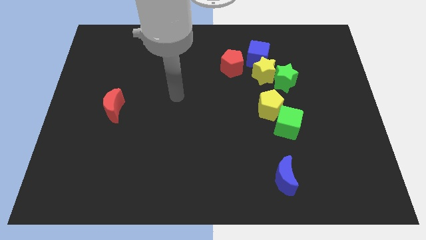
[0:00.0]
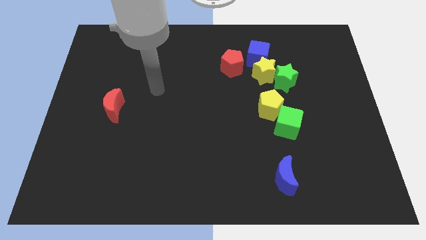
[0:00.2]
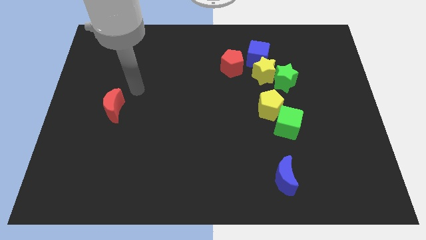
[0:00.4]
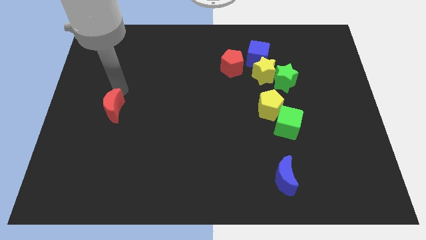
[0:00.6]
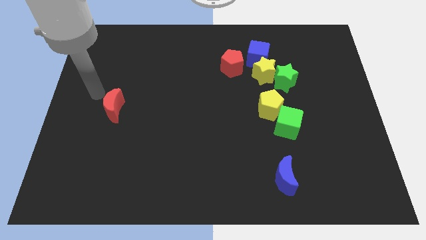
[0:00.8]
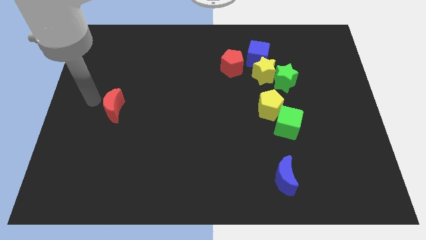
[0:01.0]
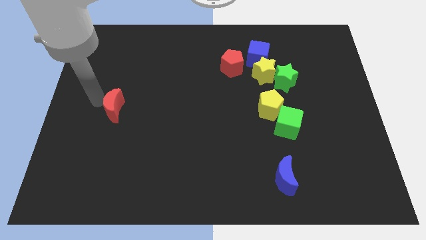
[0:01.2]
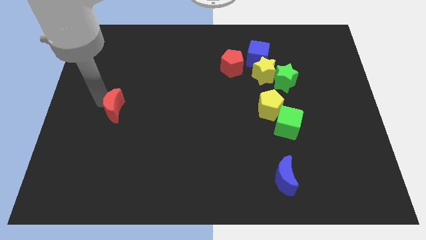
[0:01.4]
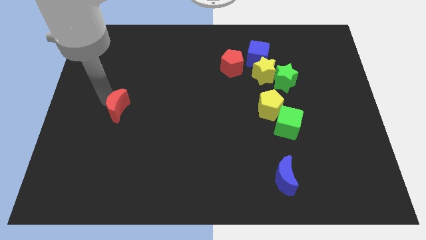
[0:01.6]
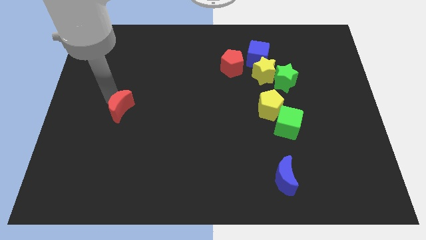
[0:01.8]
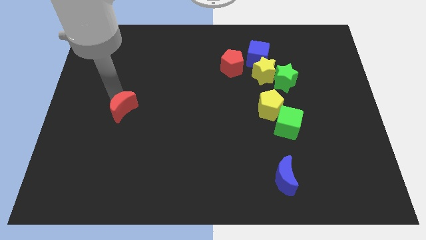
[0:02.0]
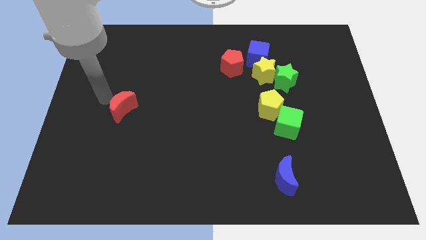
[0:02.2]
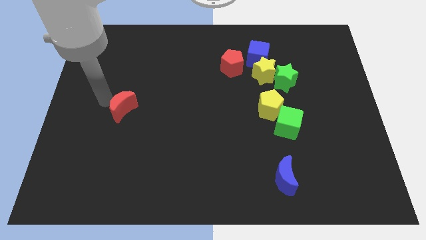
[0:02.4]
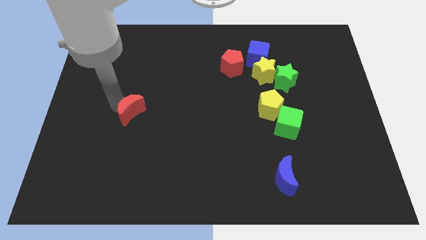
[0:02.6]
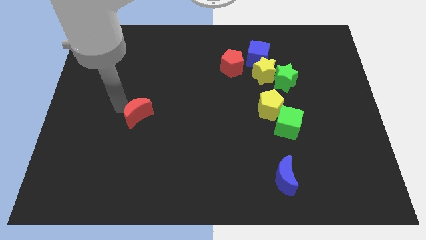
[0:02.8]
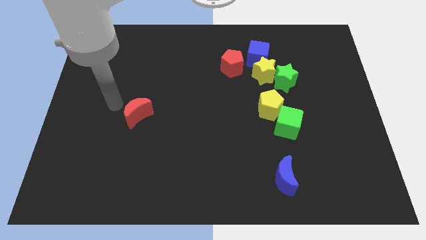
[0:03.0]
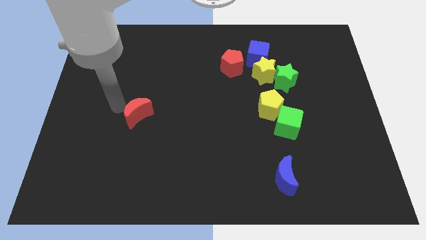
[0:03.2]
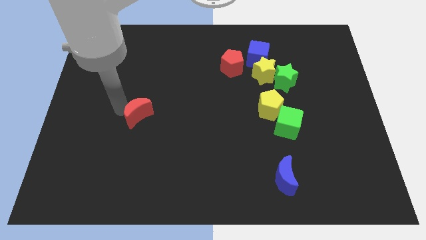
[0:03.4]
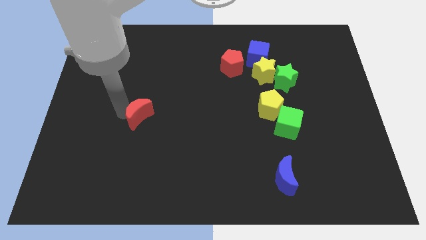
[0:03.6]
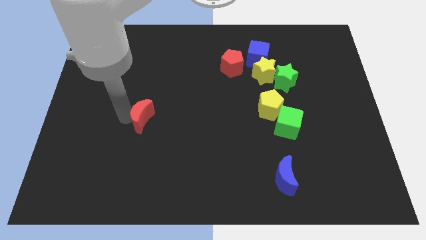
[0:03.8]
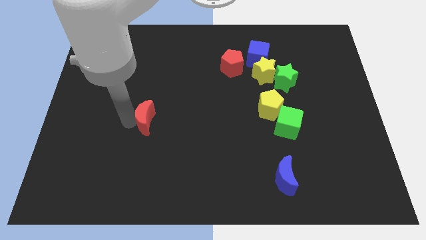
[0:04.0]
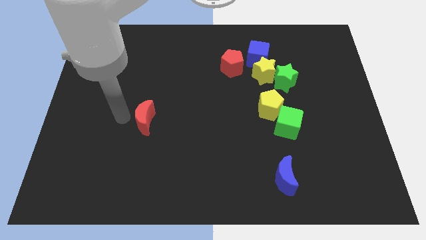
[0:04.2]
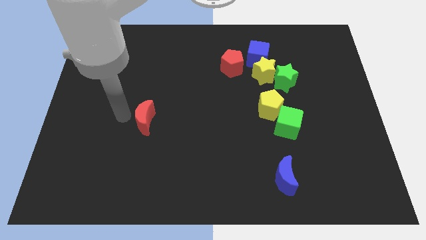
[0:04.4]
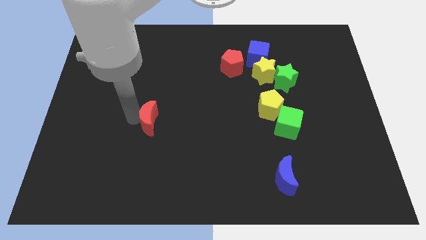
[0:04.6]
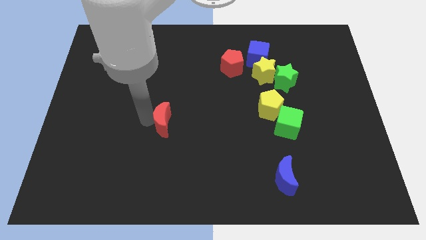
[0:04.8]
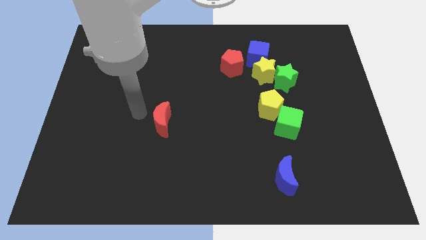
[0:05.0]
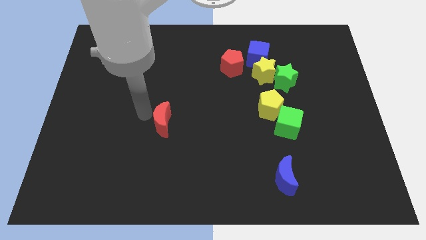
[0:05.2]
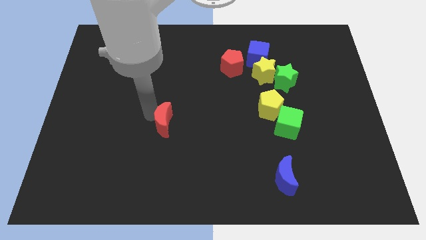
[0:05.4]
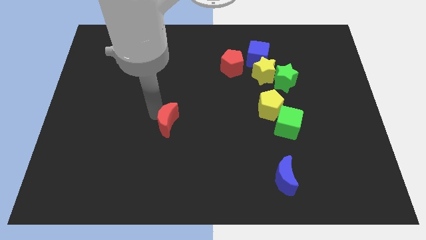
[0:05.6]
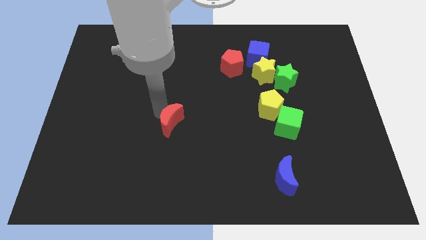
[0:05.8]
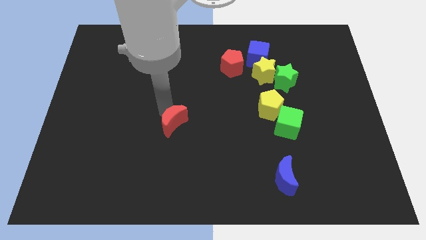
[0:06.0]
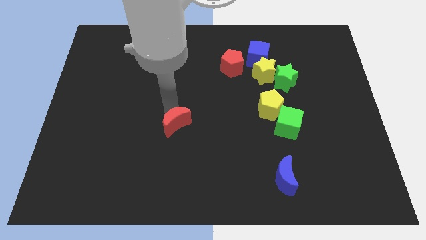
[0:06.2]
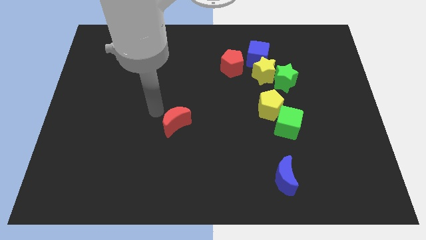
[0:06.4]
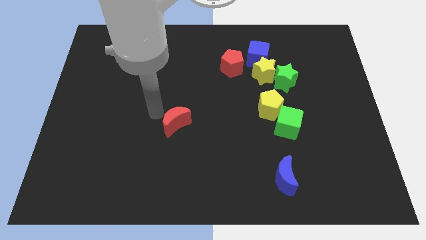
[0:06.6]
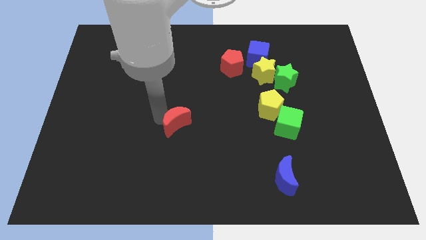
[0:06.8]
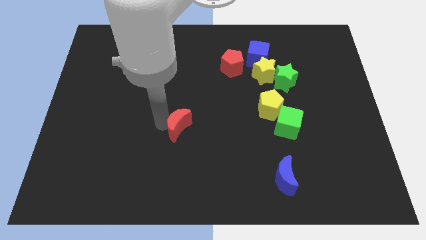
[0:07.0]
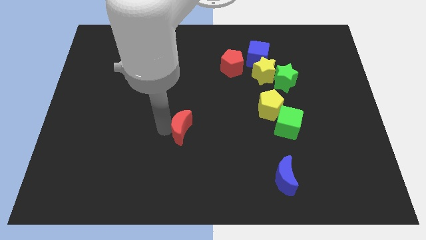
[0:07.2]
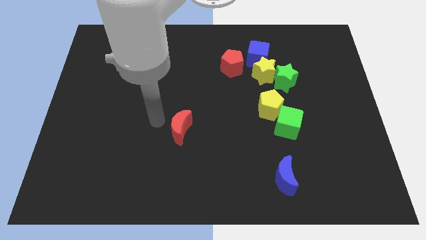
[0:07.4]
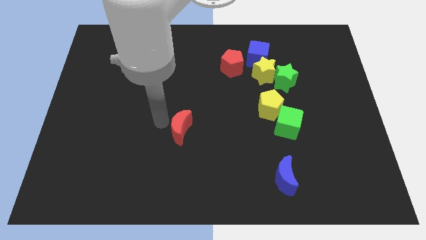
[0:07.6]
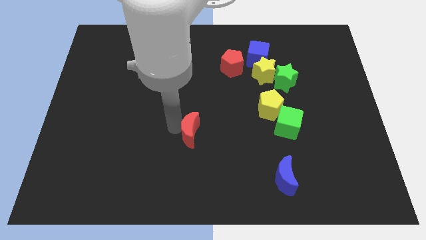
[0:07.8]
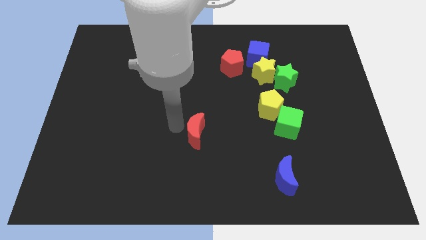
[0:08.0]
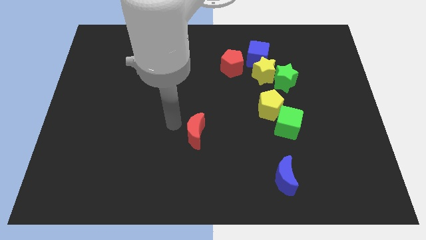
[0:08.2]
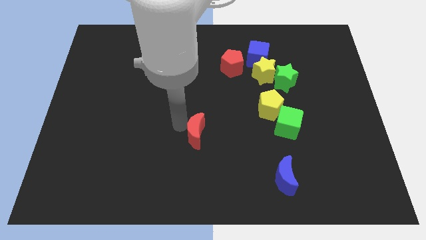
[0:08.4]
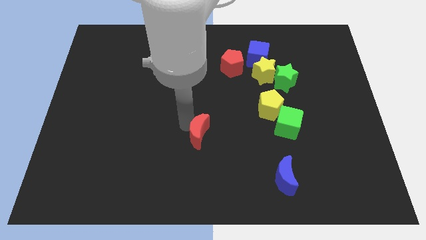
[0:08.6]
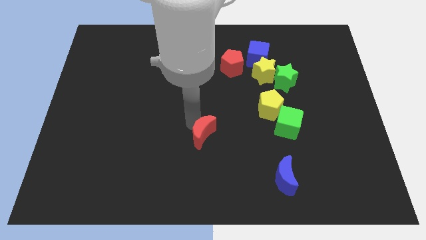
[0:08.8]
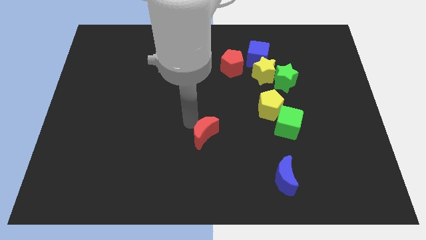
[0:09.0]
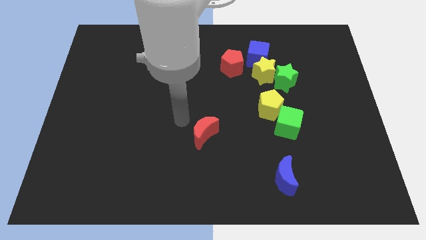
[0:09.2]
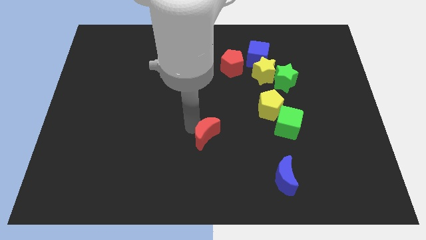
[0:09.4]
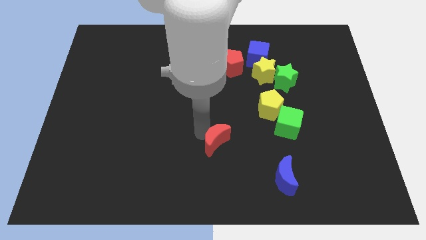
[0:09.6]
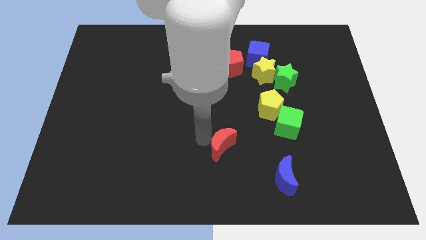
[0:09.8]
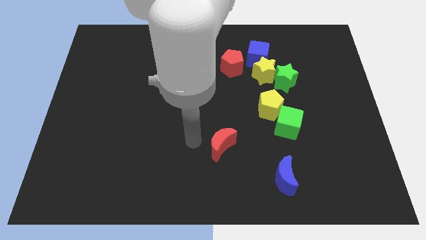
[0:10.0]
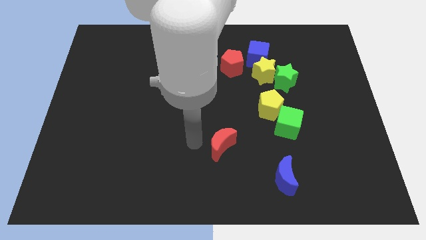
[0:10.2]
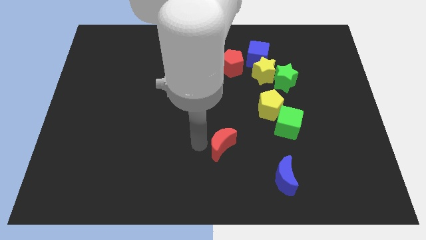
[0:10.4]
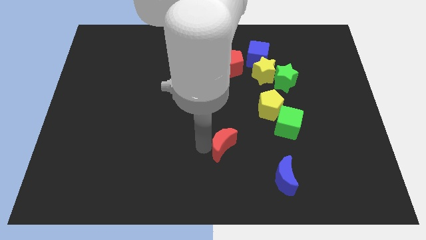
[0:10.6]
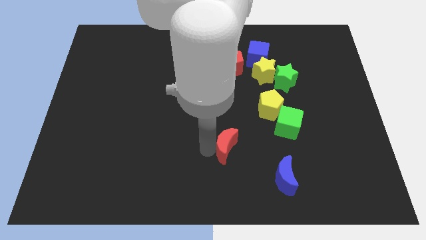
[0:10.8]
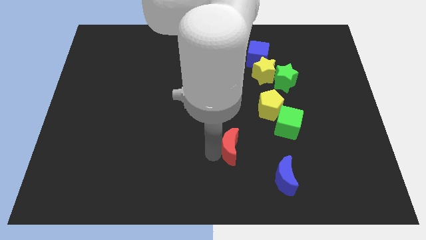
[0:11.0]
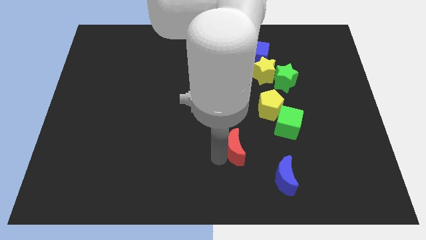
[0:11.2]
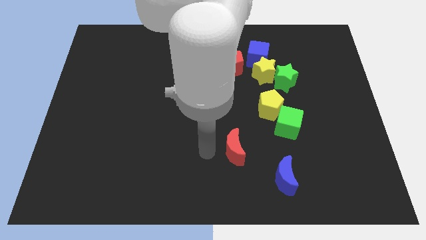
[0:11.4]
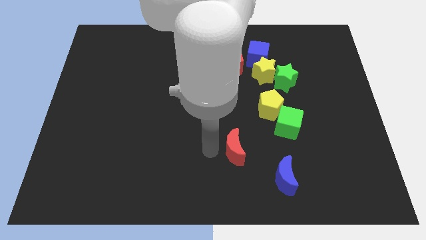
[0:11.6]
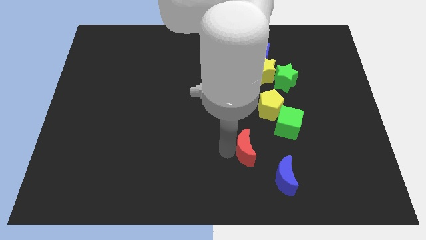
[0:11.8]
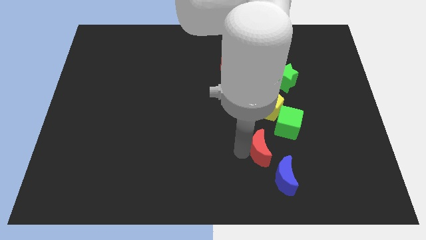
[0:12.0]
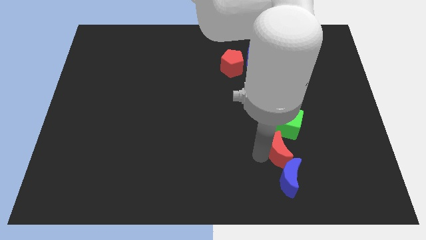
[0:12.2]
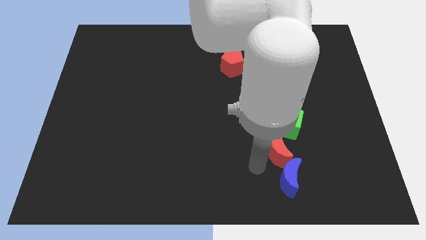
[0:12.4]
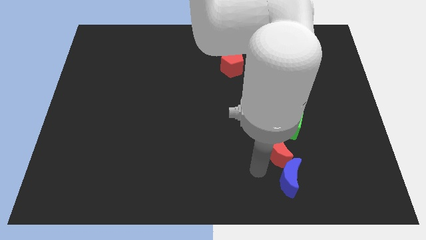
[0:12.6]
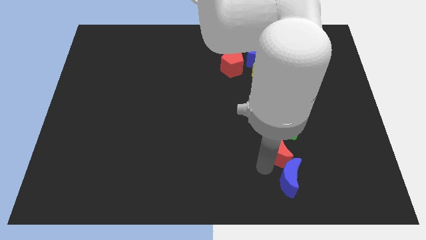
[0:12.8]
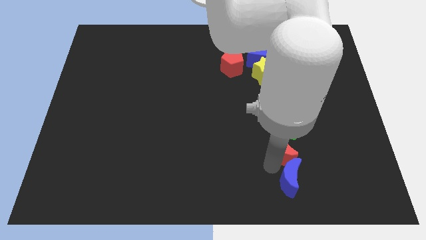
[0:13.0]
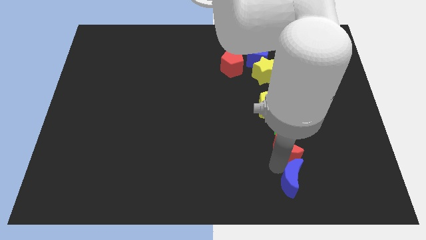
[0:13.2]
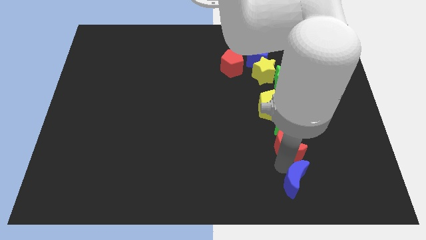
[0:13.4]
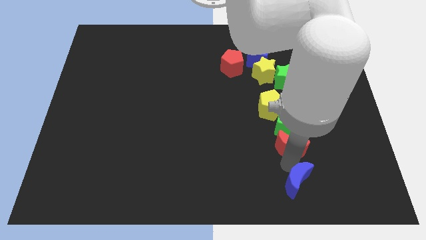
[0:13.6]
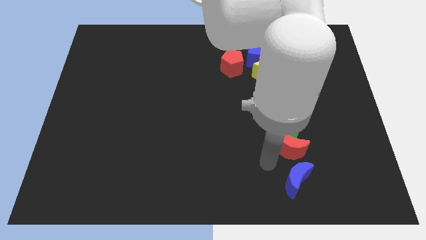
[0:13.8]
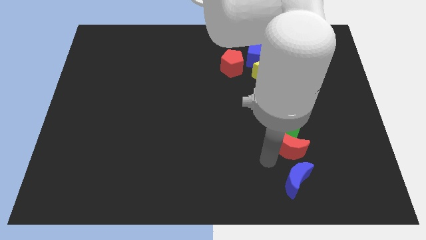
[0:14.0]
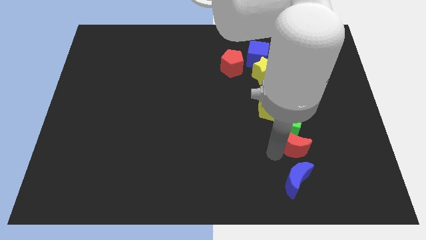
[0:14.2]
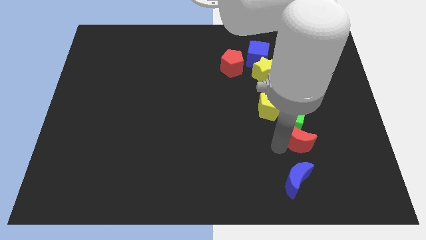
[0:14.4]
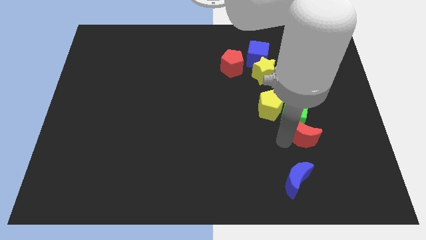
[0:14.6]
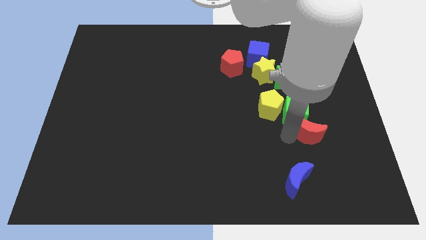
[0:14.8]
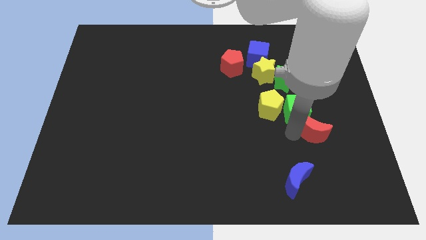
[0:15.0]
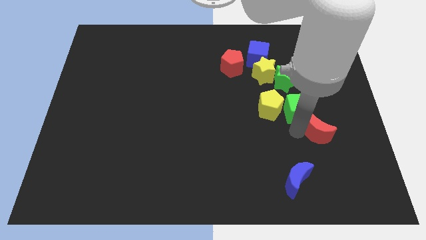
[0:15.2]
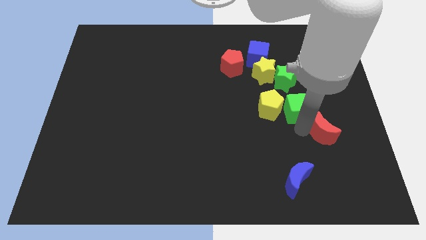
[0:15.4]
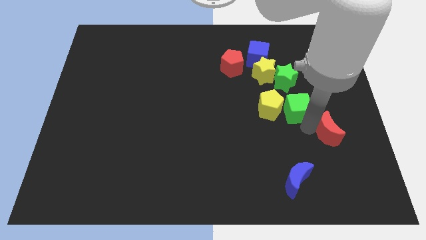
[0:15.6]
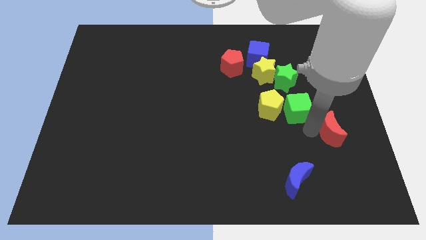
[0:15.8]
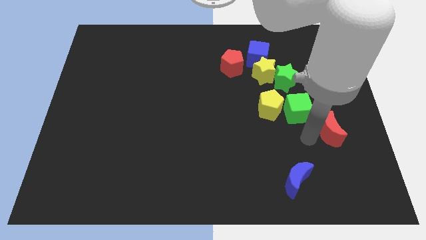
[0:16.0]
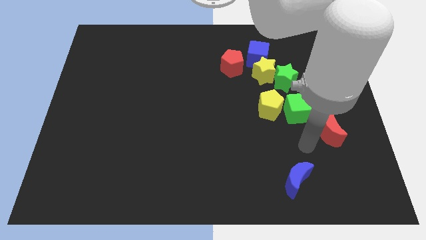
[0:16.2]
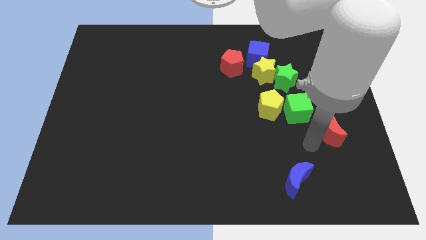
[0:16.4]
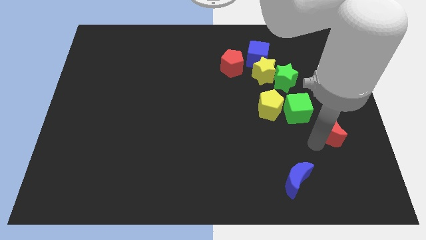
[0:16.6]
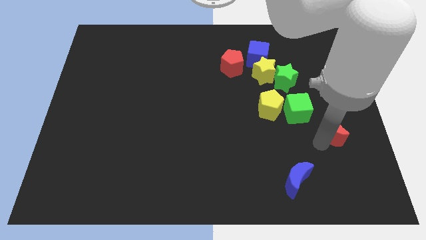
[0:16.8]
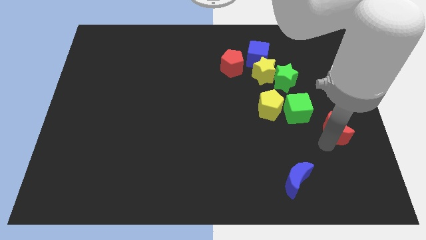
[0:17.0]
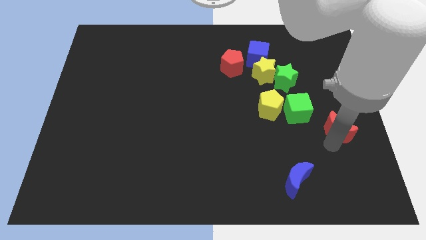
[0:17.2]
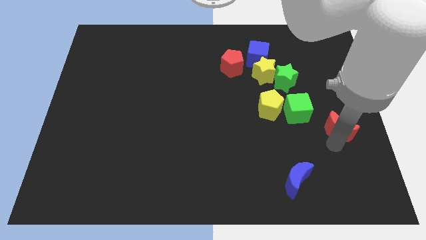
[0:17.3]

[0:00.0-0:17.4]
slide the red moon to the right side
